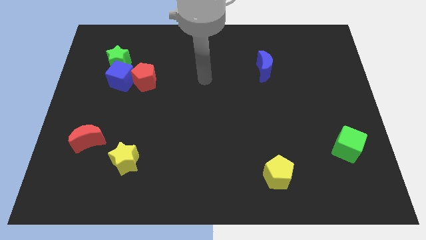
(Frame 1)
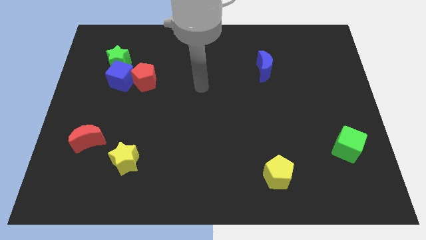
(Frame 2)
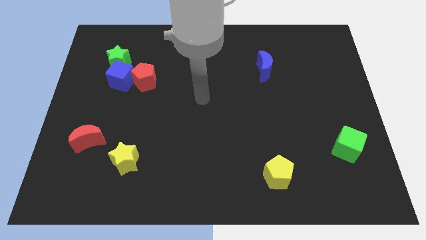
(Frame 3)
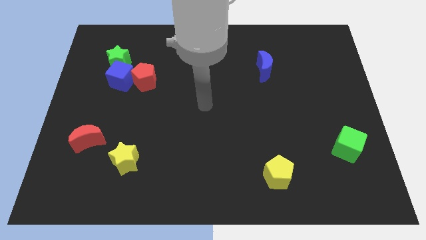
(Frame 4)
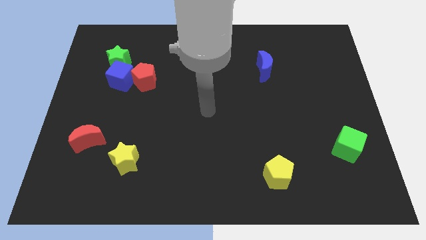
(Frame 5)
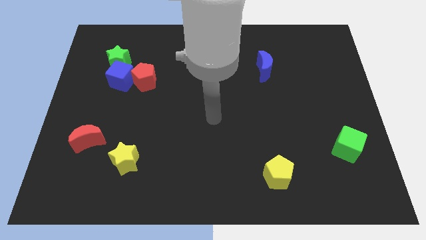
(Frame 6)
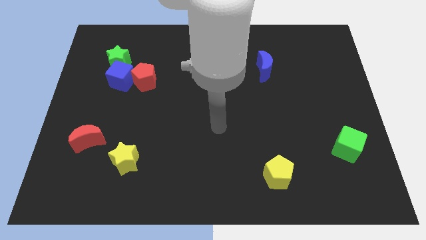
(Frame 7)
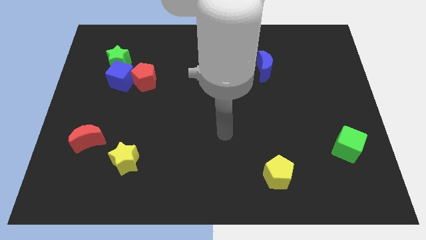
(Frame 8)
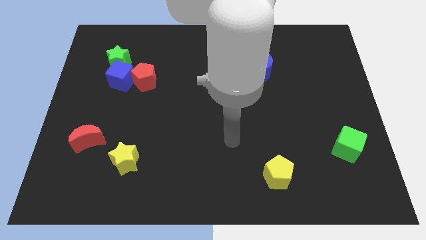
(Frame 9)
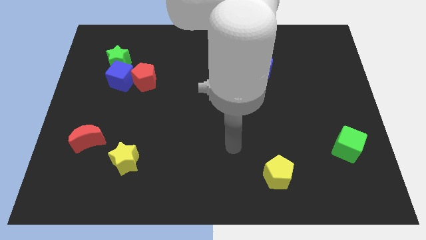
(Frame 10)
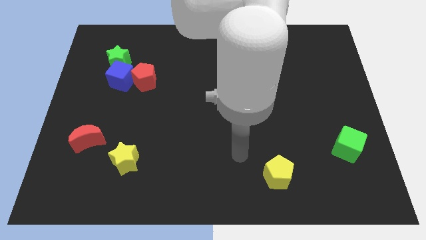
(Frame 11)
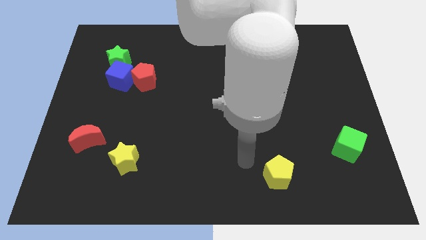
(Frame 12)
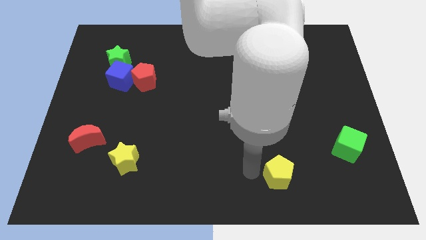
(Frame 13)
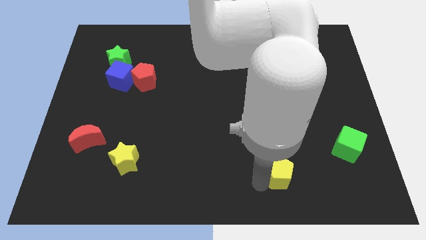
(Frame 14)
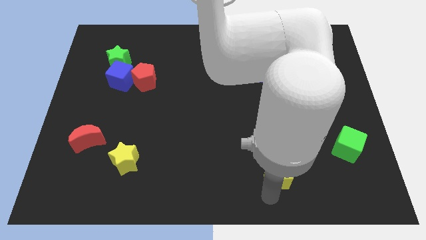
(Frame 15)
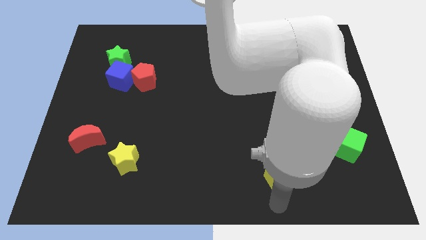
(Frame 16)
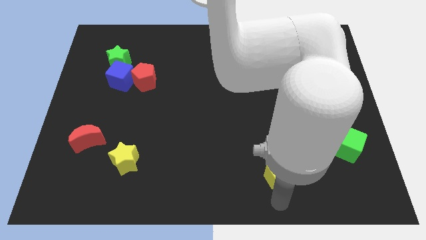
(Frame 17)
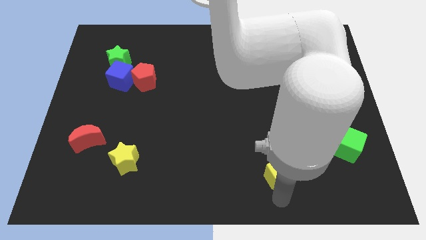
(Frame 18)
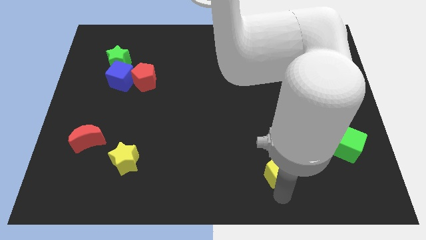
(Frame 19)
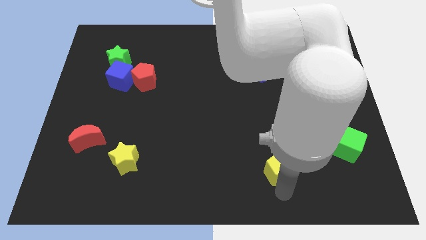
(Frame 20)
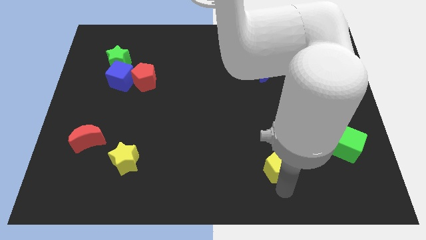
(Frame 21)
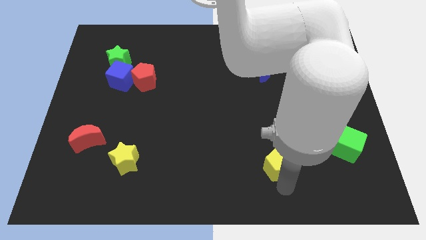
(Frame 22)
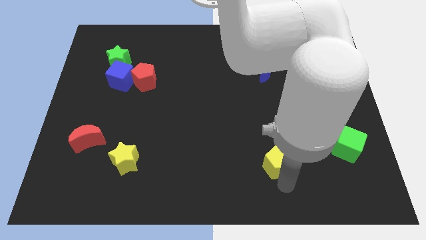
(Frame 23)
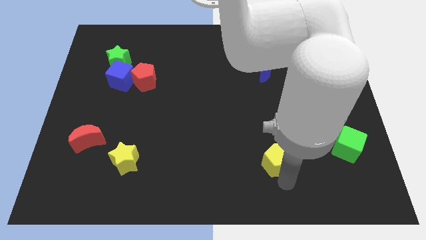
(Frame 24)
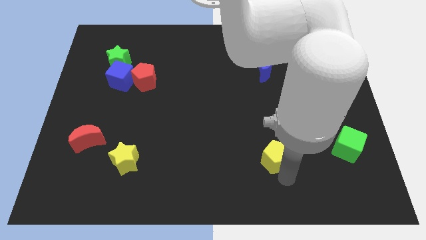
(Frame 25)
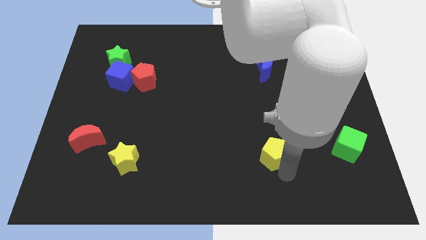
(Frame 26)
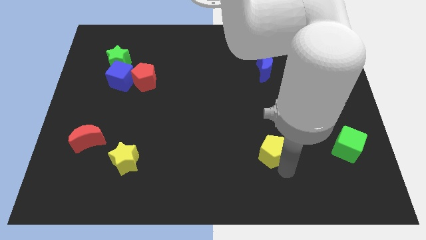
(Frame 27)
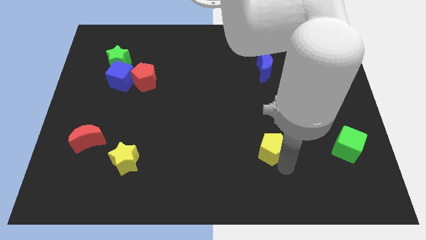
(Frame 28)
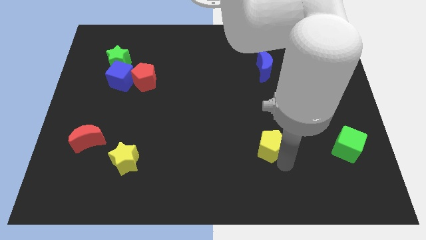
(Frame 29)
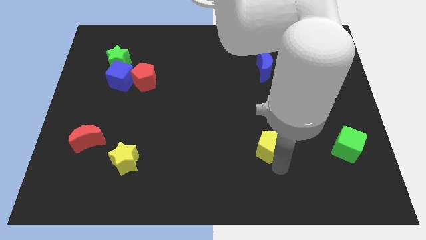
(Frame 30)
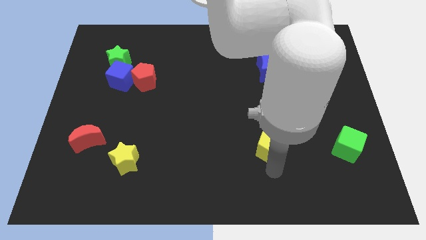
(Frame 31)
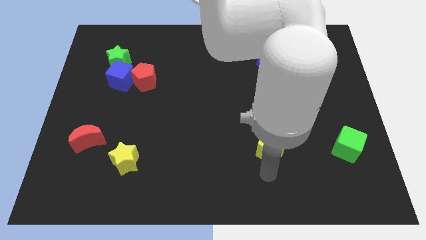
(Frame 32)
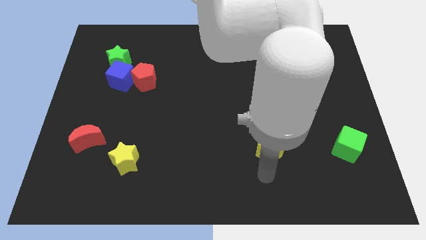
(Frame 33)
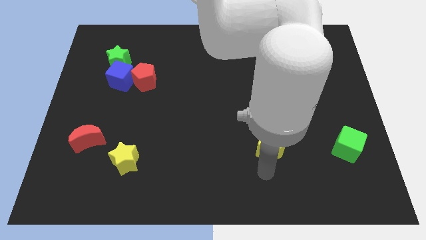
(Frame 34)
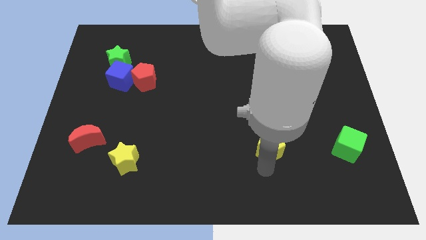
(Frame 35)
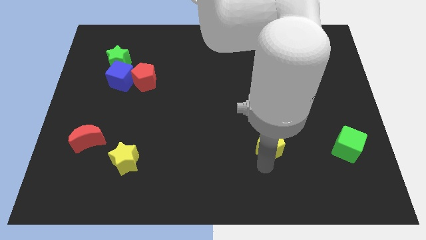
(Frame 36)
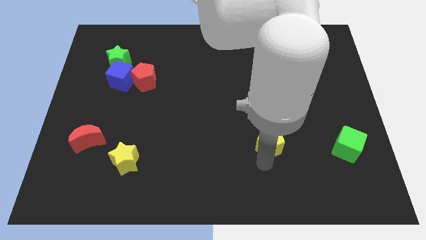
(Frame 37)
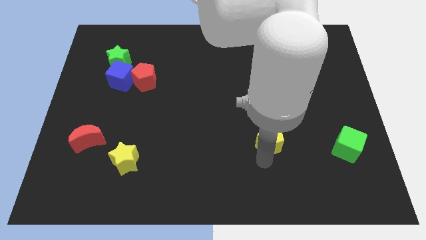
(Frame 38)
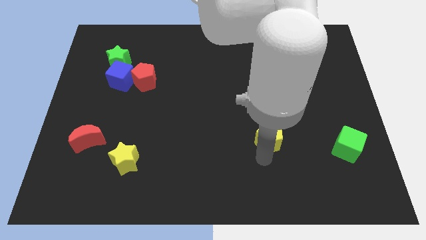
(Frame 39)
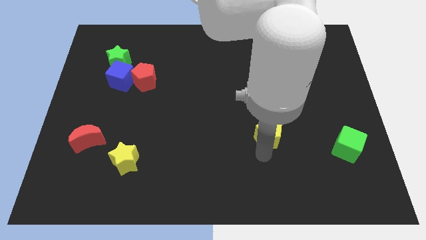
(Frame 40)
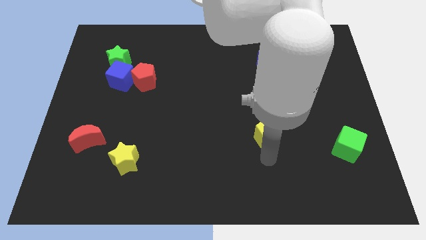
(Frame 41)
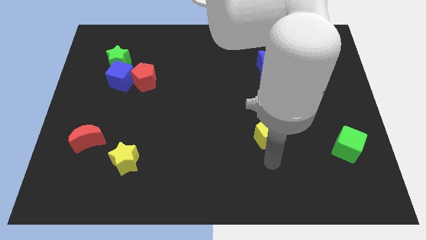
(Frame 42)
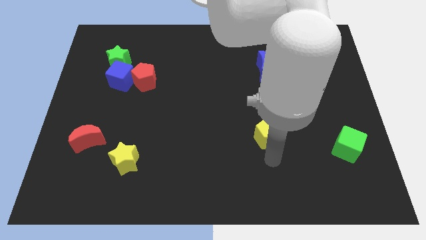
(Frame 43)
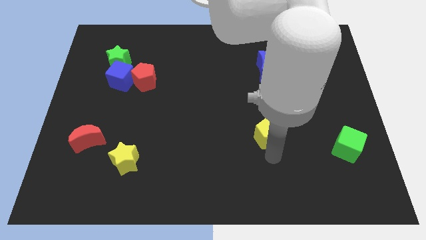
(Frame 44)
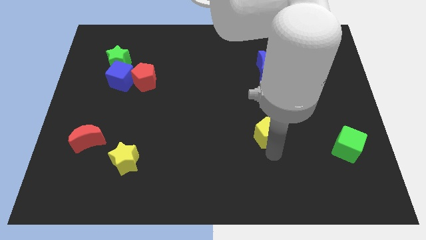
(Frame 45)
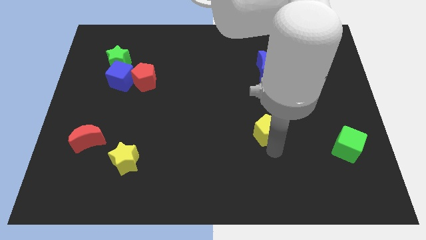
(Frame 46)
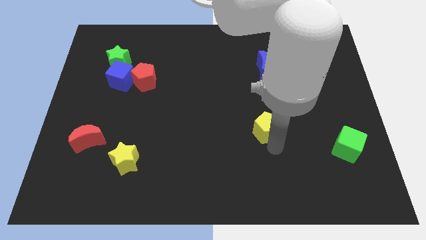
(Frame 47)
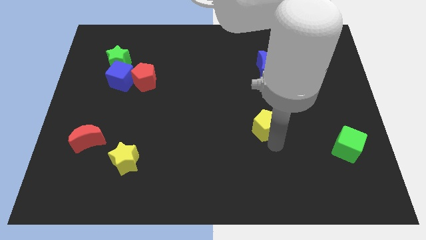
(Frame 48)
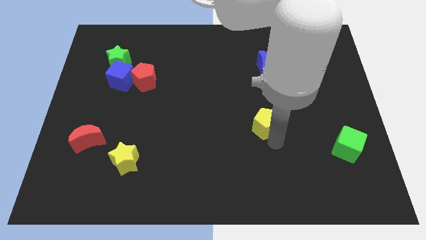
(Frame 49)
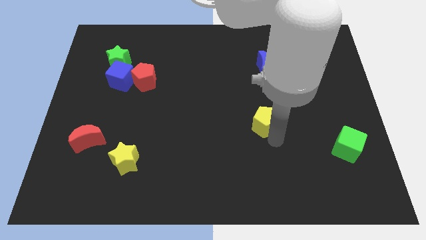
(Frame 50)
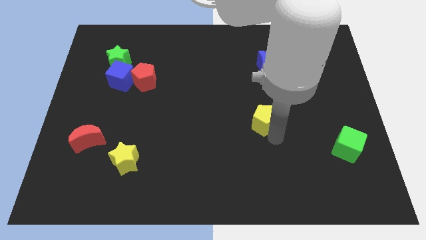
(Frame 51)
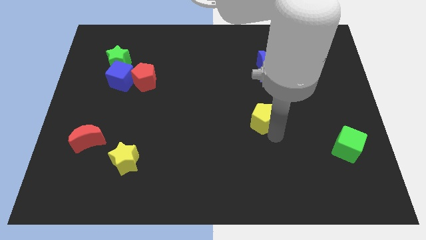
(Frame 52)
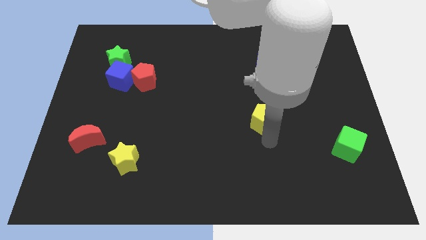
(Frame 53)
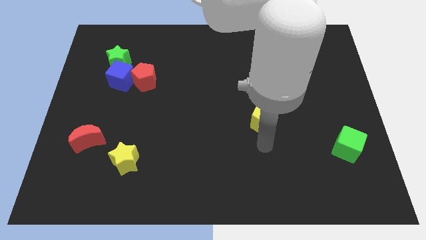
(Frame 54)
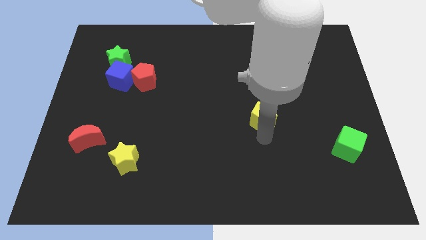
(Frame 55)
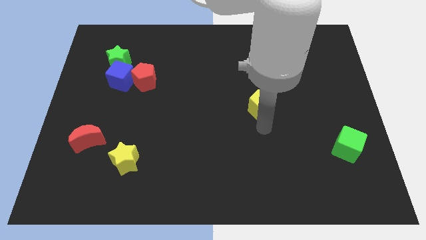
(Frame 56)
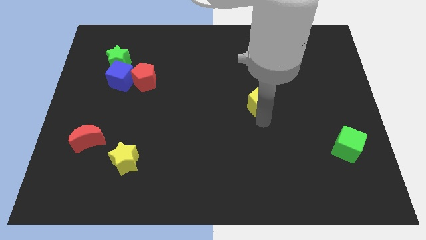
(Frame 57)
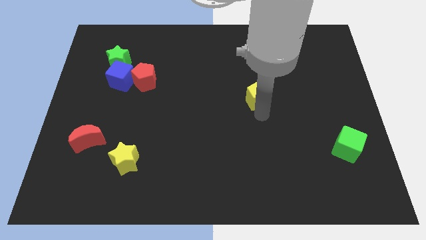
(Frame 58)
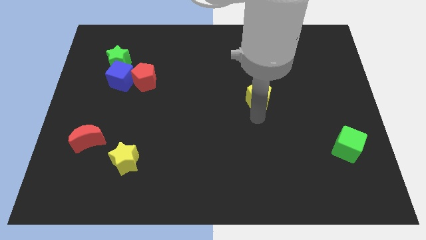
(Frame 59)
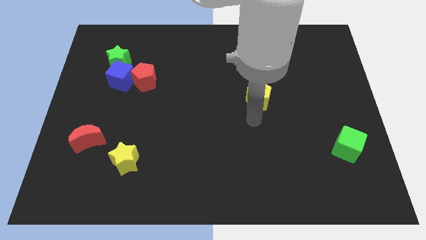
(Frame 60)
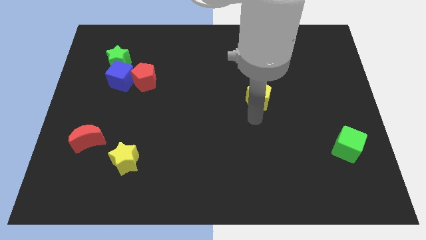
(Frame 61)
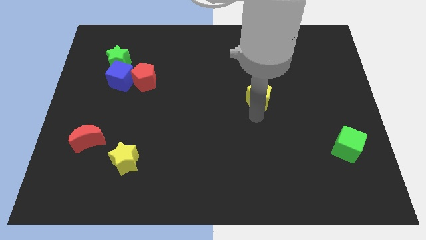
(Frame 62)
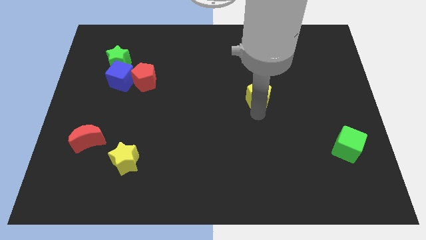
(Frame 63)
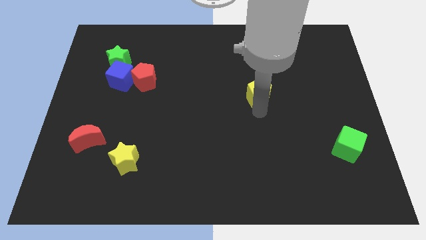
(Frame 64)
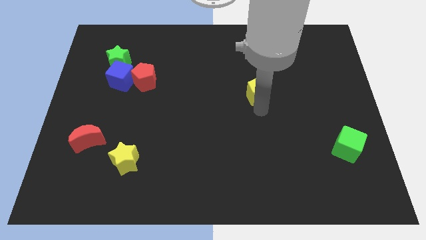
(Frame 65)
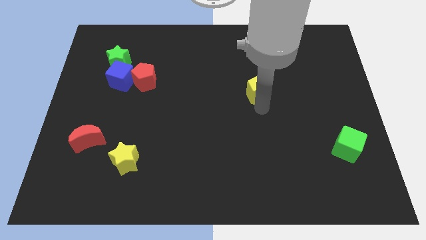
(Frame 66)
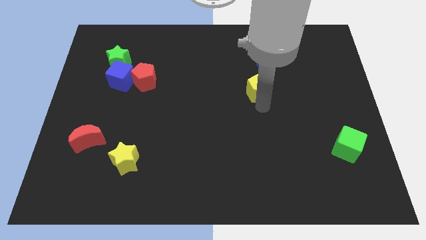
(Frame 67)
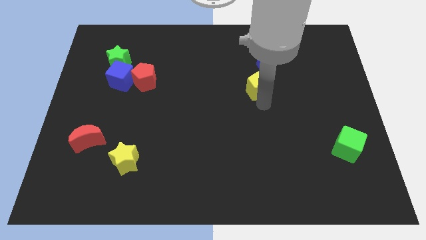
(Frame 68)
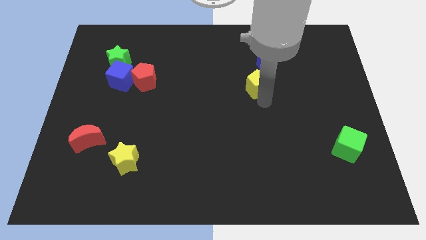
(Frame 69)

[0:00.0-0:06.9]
put the yellow pentagon next to the blue moon
